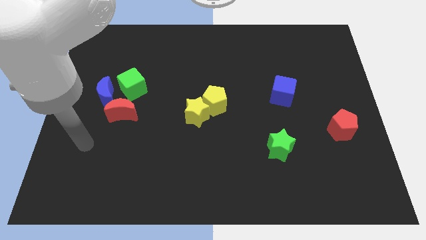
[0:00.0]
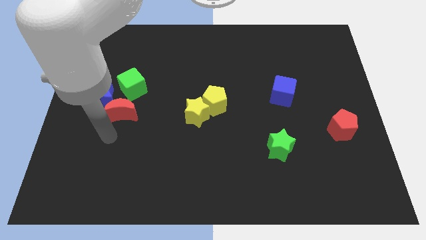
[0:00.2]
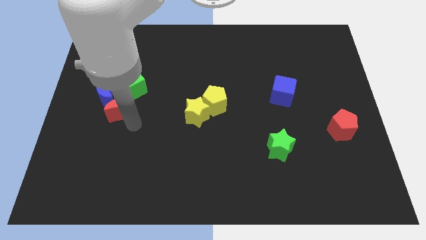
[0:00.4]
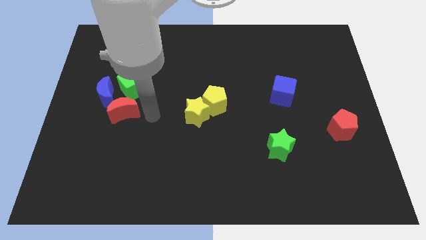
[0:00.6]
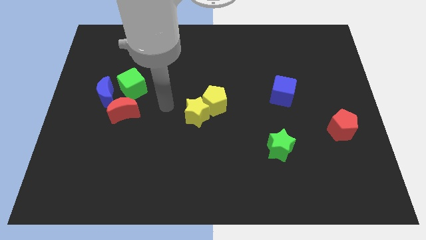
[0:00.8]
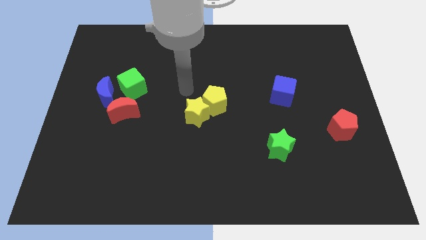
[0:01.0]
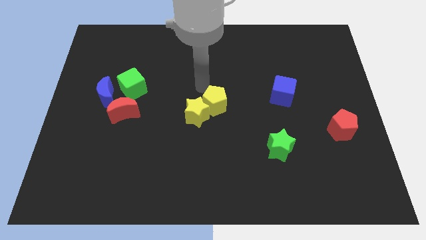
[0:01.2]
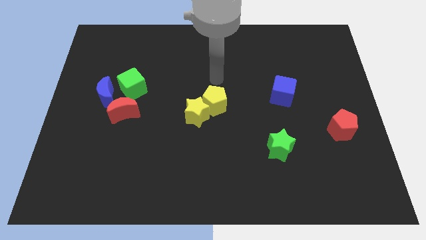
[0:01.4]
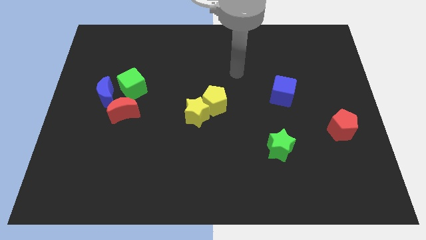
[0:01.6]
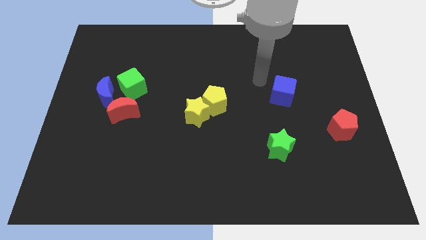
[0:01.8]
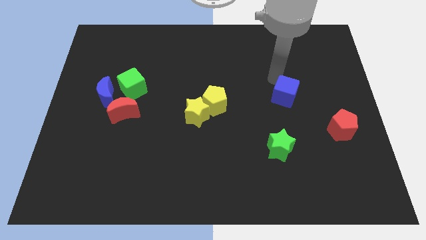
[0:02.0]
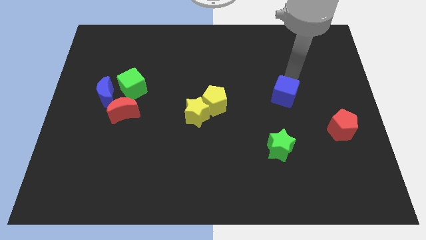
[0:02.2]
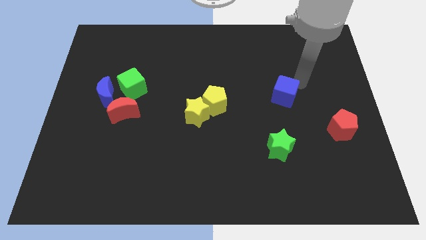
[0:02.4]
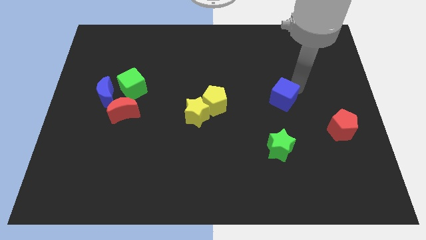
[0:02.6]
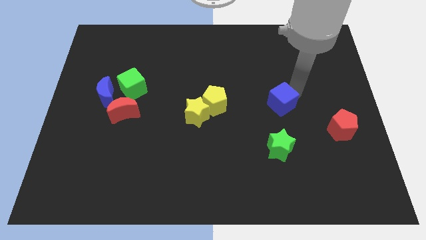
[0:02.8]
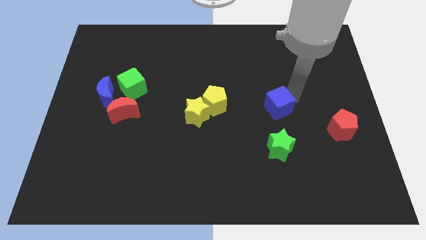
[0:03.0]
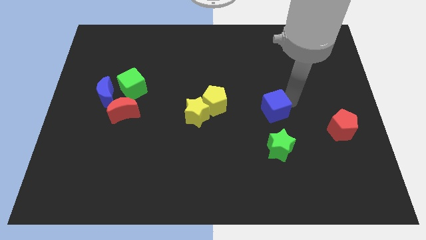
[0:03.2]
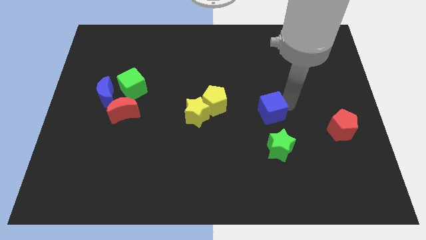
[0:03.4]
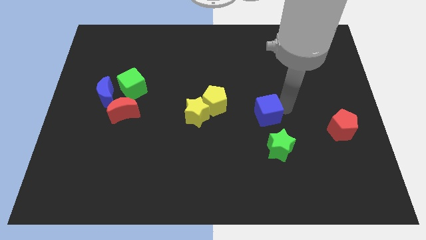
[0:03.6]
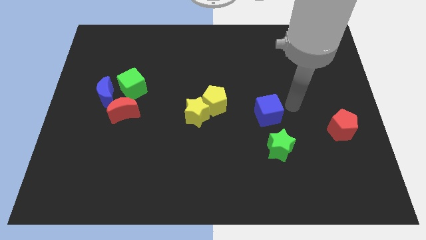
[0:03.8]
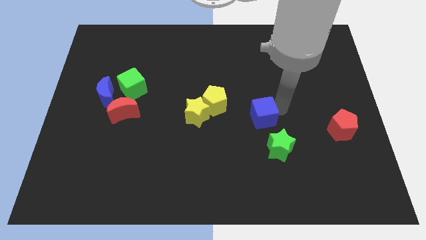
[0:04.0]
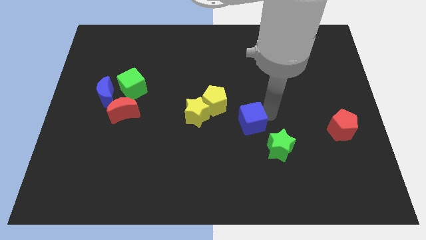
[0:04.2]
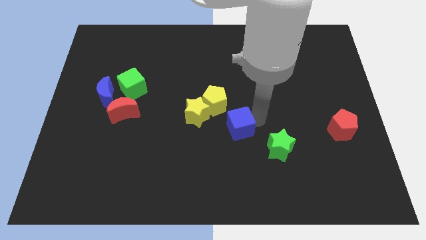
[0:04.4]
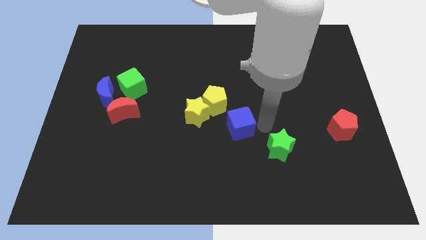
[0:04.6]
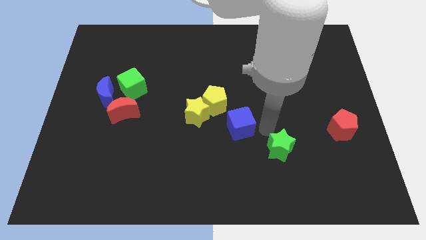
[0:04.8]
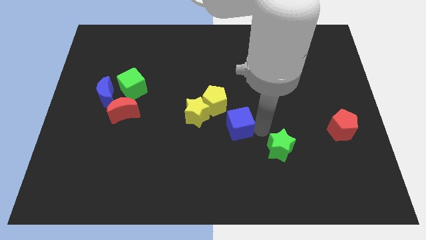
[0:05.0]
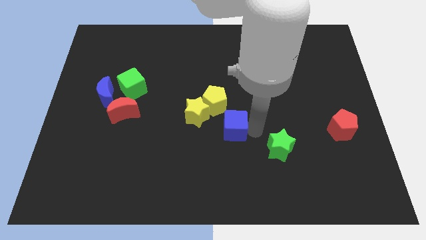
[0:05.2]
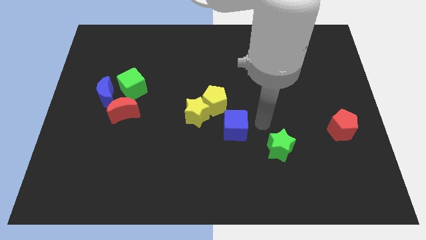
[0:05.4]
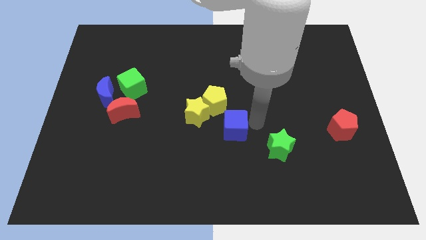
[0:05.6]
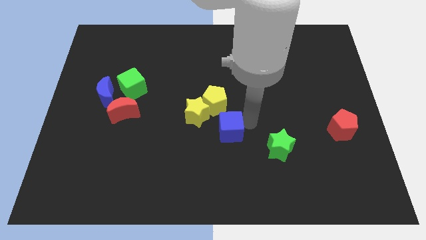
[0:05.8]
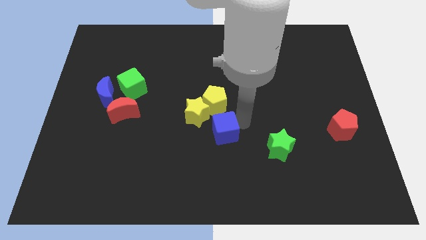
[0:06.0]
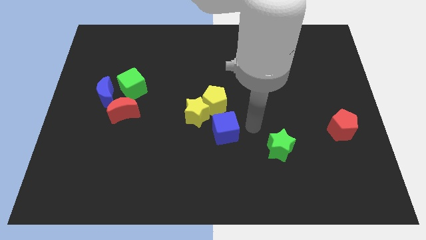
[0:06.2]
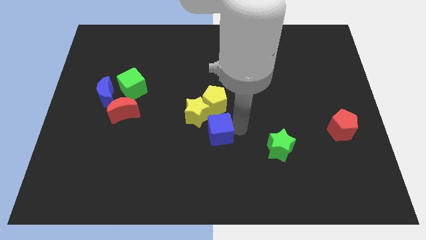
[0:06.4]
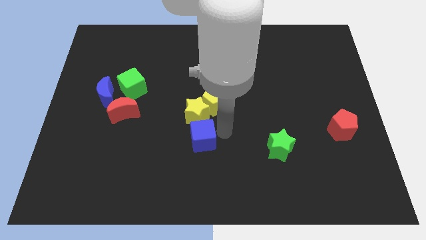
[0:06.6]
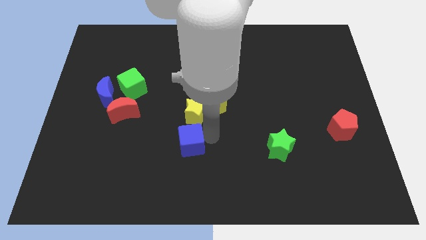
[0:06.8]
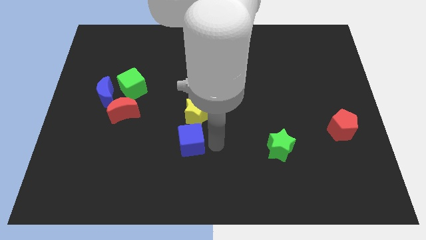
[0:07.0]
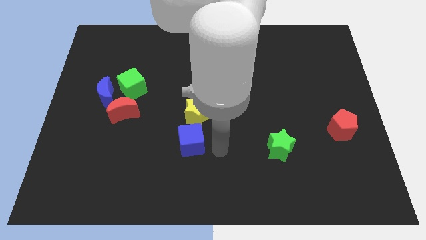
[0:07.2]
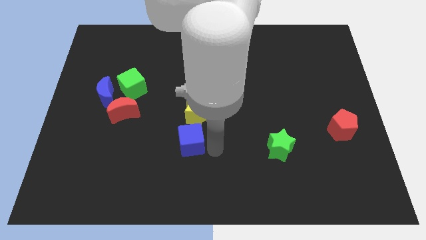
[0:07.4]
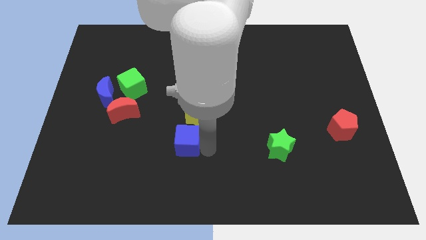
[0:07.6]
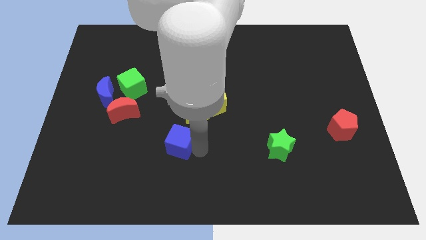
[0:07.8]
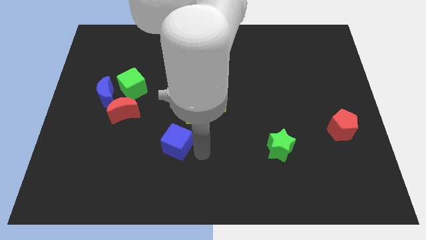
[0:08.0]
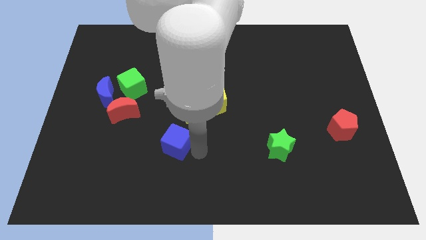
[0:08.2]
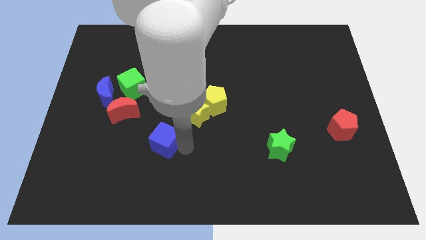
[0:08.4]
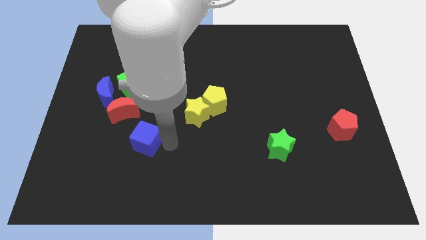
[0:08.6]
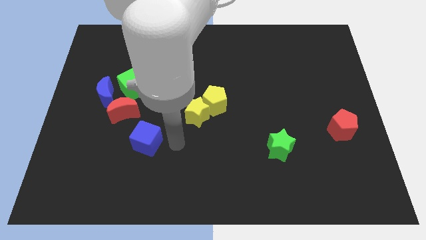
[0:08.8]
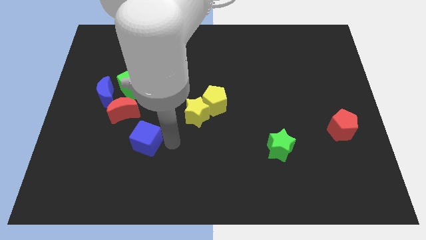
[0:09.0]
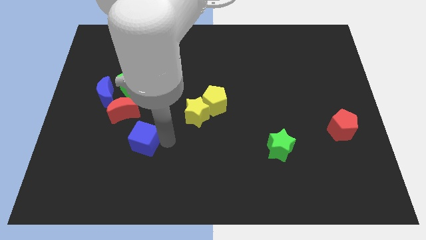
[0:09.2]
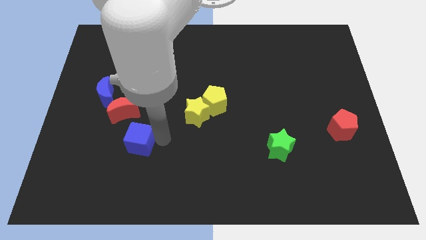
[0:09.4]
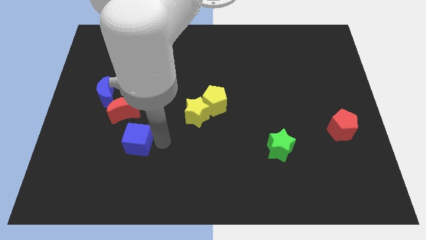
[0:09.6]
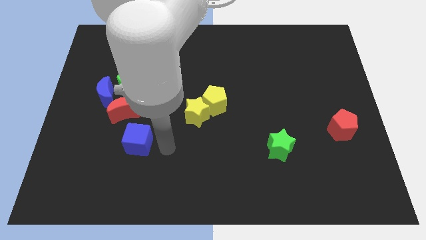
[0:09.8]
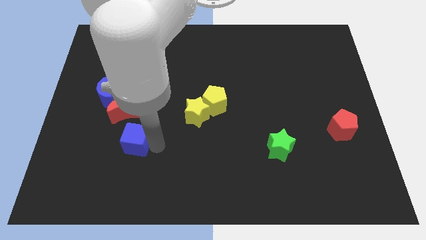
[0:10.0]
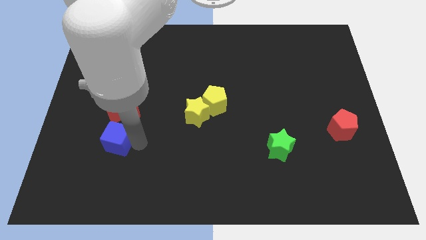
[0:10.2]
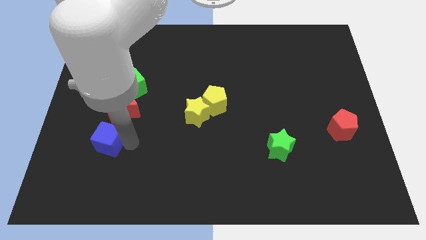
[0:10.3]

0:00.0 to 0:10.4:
move the blue cube diagonally down and to the left of the red moon

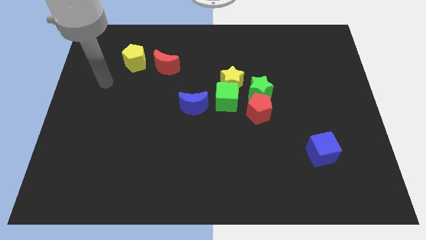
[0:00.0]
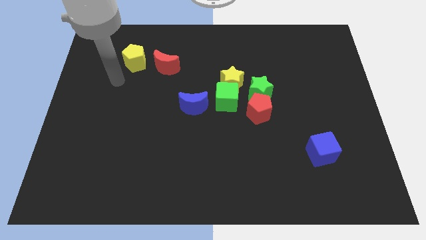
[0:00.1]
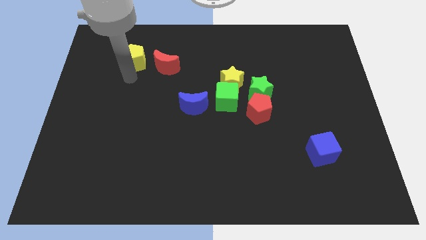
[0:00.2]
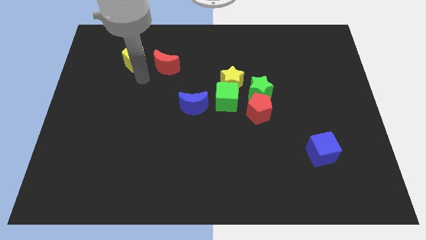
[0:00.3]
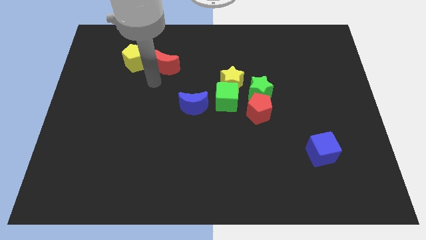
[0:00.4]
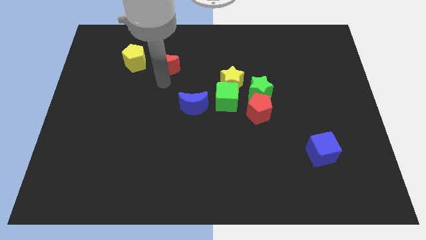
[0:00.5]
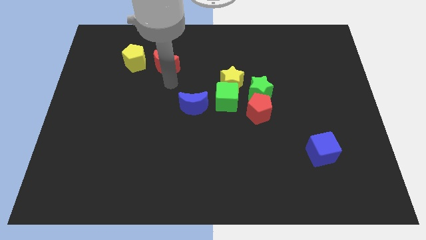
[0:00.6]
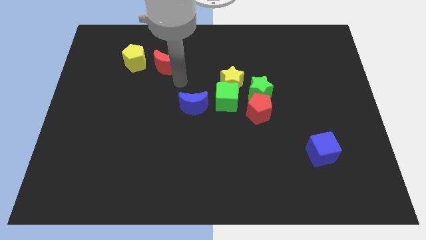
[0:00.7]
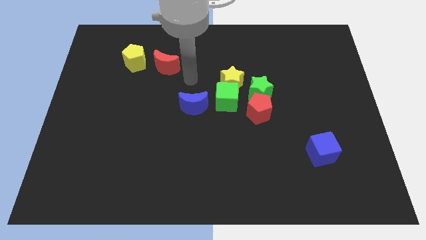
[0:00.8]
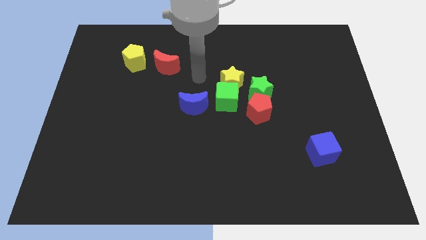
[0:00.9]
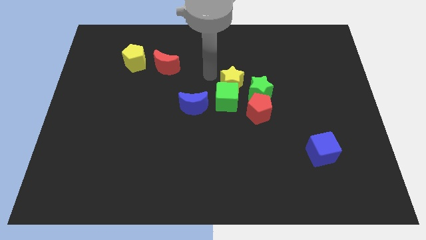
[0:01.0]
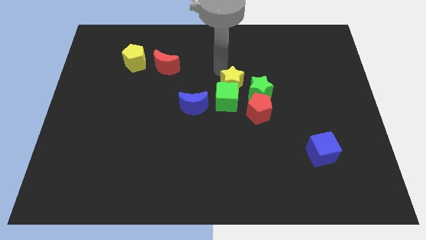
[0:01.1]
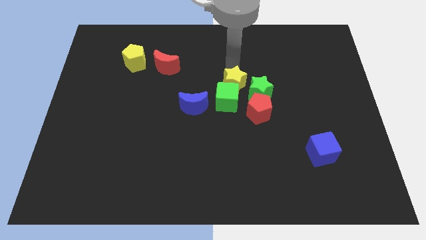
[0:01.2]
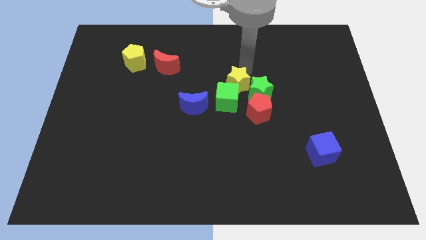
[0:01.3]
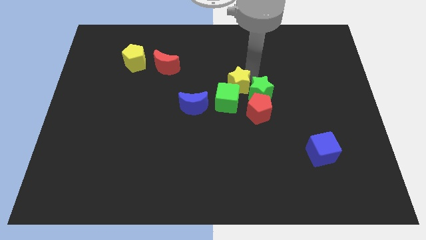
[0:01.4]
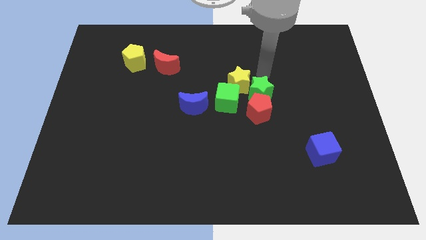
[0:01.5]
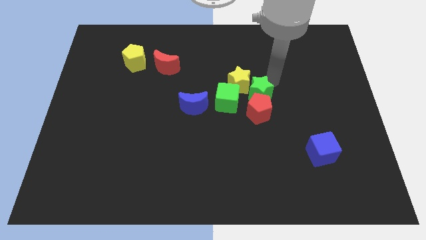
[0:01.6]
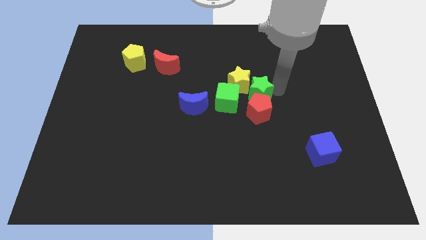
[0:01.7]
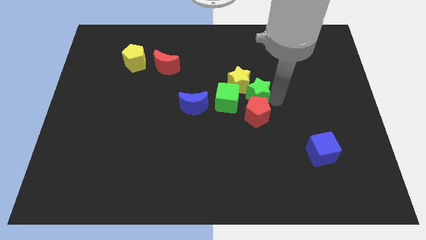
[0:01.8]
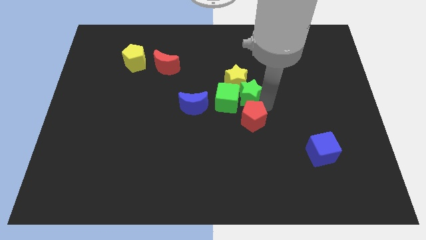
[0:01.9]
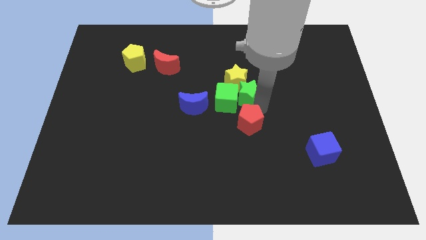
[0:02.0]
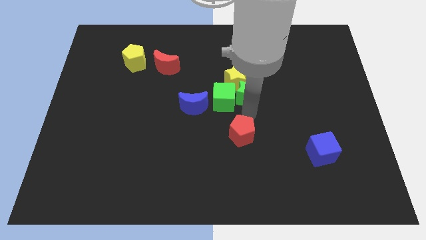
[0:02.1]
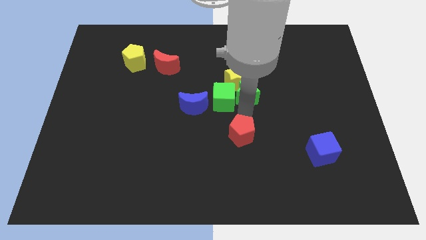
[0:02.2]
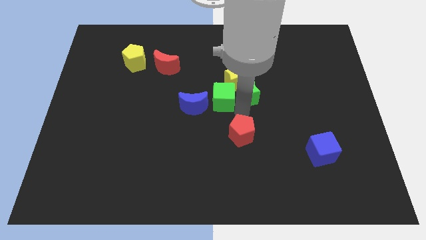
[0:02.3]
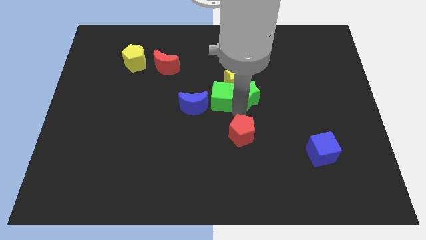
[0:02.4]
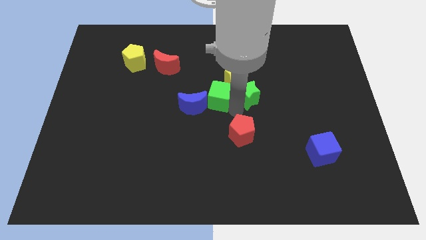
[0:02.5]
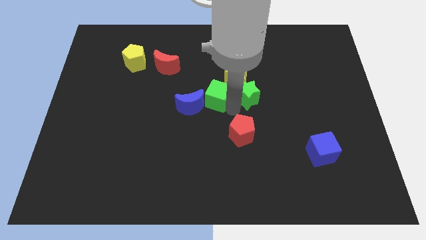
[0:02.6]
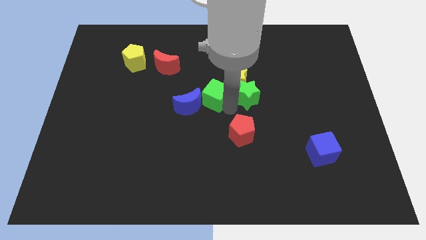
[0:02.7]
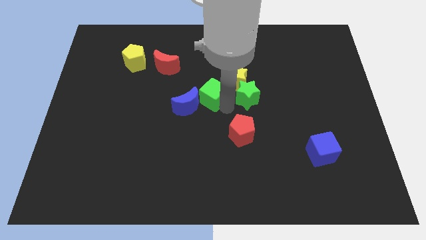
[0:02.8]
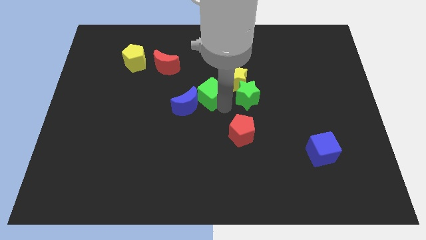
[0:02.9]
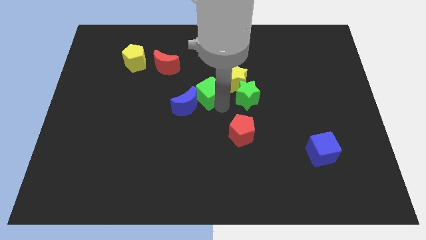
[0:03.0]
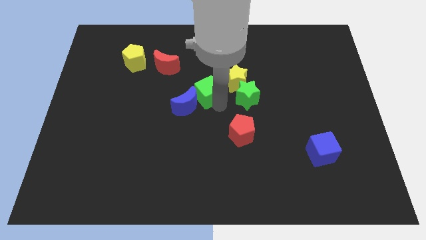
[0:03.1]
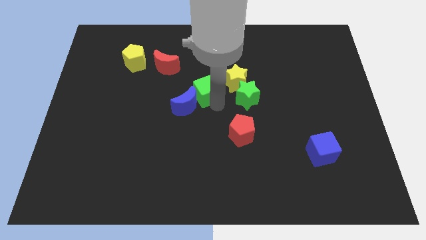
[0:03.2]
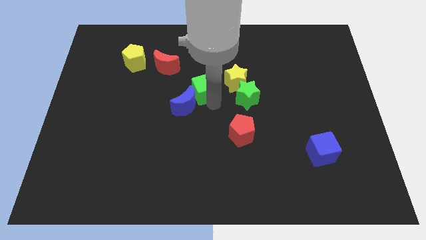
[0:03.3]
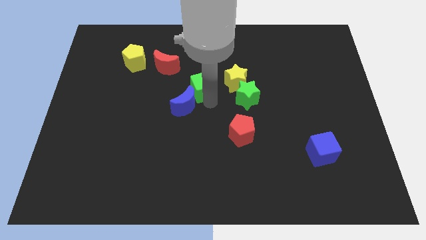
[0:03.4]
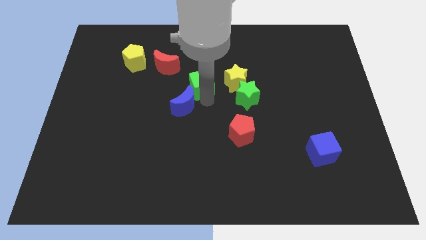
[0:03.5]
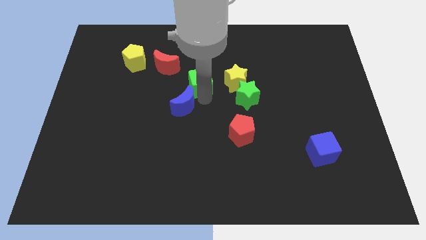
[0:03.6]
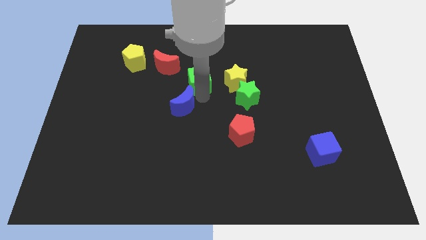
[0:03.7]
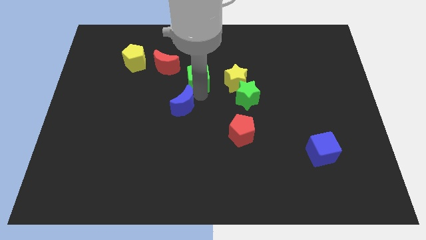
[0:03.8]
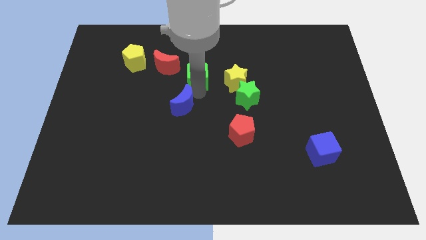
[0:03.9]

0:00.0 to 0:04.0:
slide the green cube to the right side of the red moon
